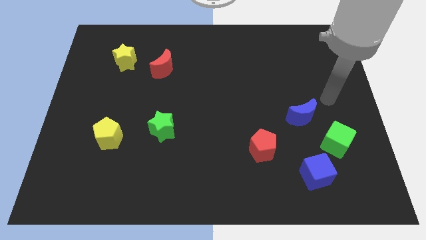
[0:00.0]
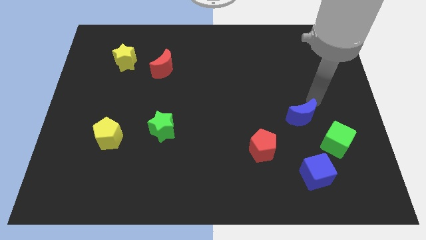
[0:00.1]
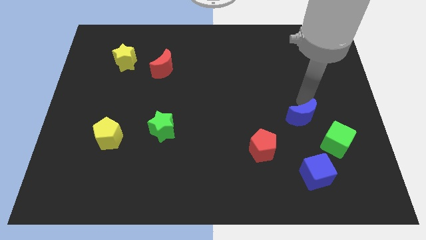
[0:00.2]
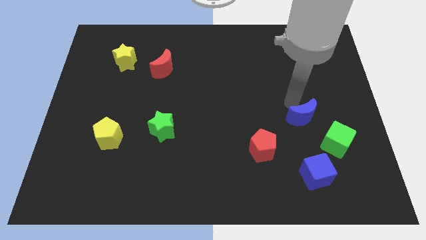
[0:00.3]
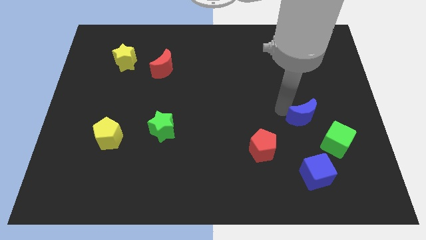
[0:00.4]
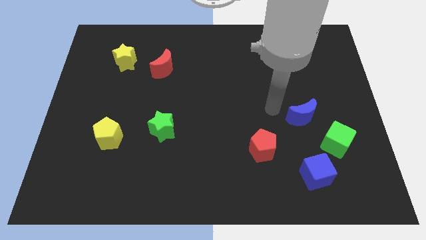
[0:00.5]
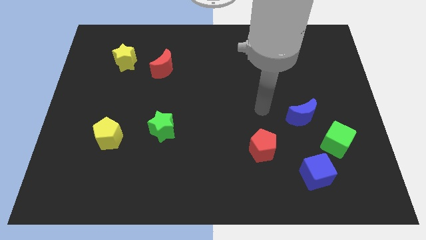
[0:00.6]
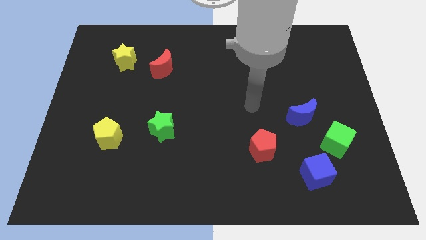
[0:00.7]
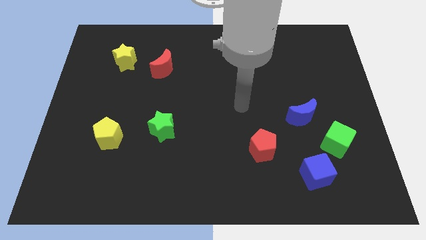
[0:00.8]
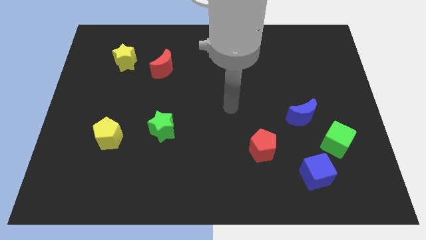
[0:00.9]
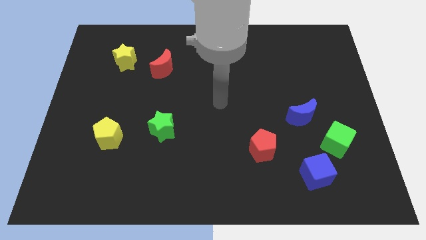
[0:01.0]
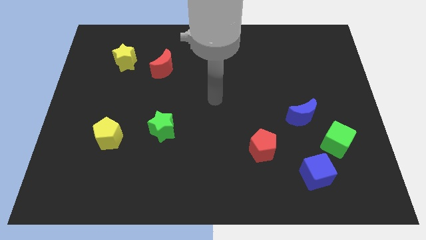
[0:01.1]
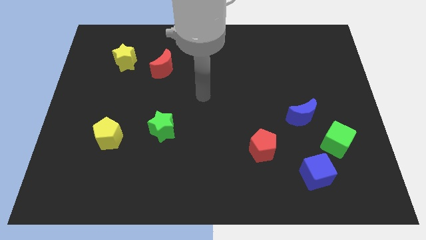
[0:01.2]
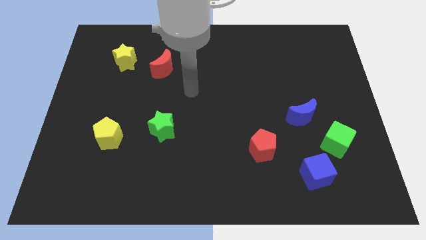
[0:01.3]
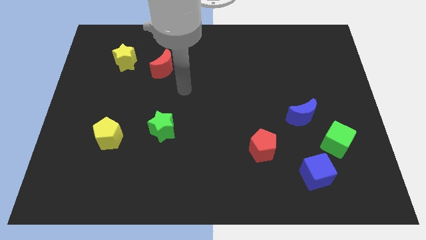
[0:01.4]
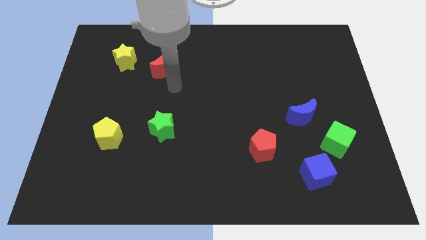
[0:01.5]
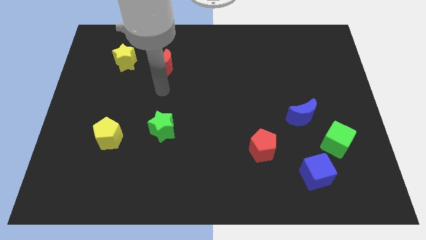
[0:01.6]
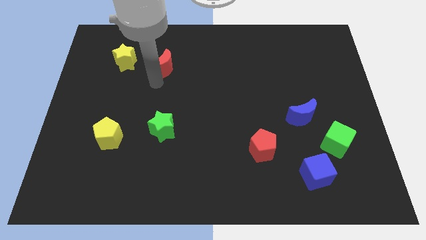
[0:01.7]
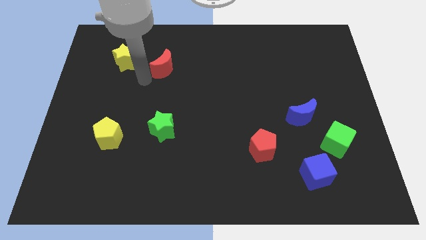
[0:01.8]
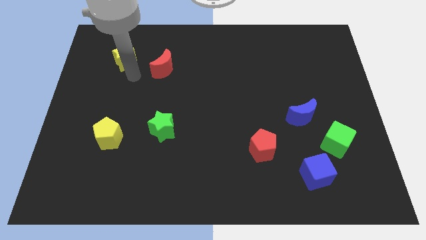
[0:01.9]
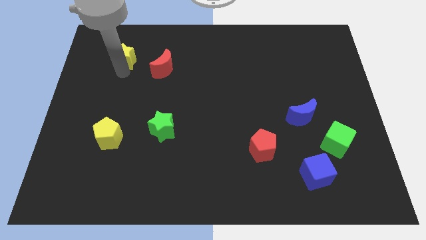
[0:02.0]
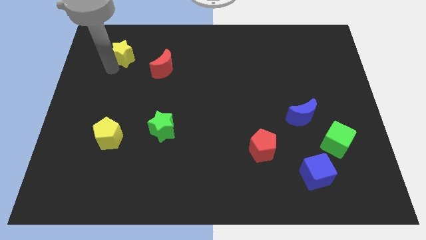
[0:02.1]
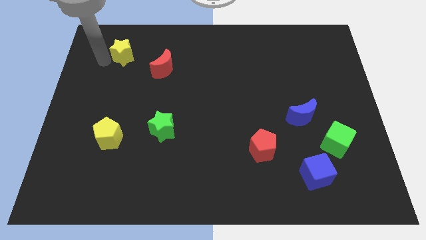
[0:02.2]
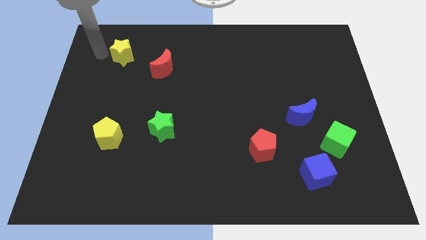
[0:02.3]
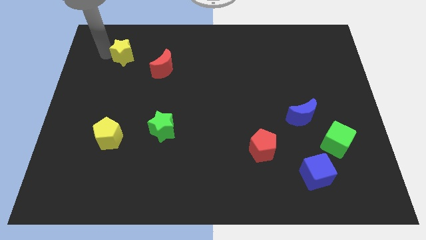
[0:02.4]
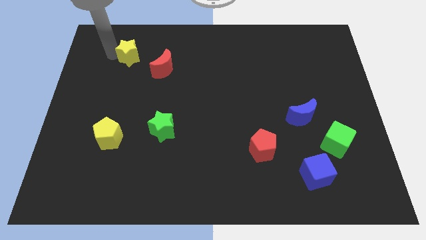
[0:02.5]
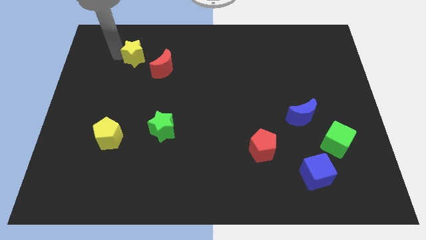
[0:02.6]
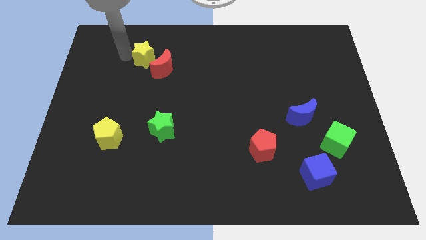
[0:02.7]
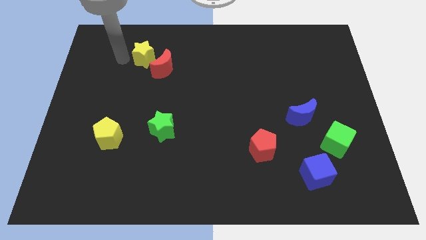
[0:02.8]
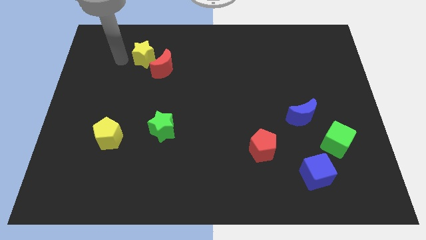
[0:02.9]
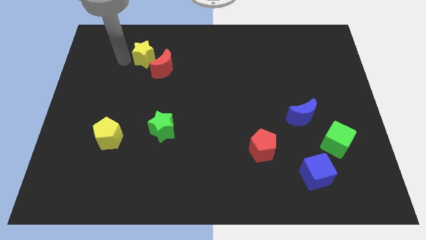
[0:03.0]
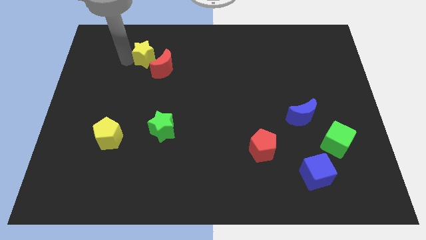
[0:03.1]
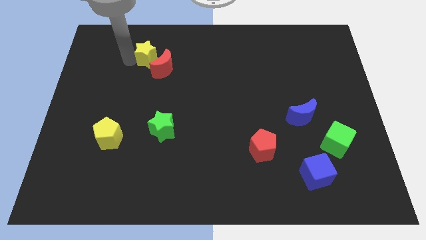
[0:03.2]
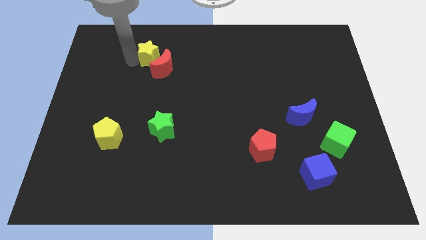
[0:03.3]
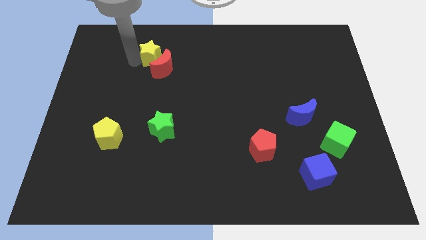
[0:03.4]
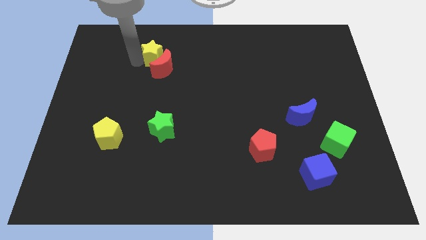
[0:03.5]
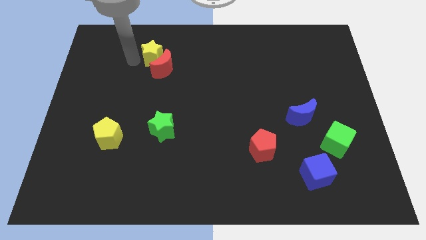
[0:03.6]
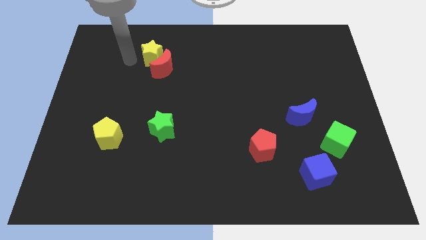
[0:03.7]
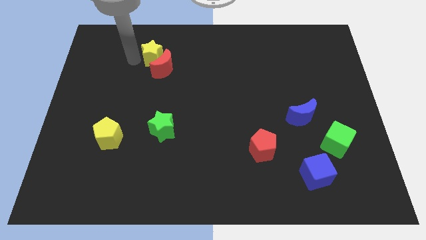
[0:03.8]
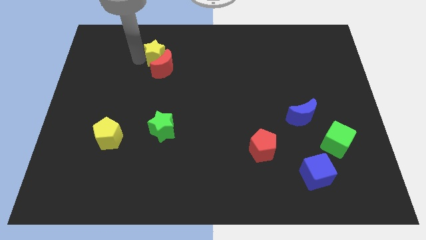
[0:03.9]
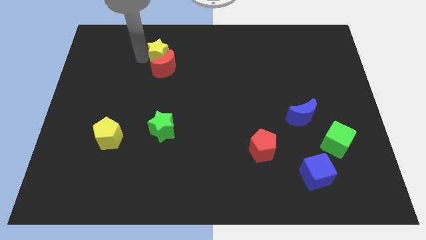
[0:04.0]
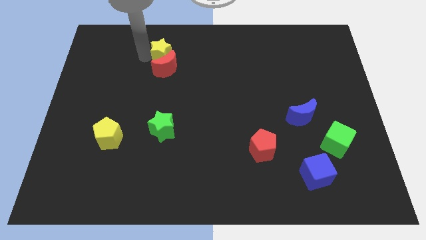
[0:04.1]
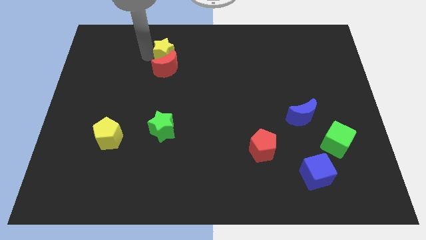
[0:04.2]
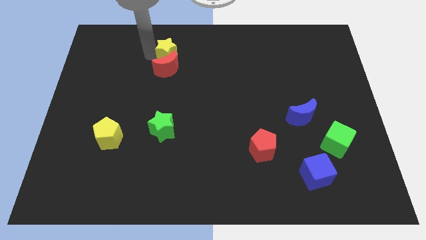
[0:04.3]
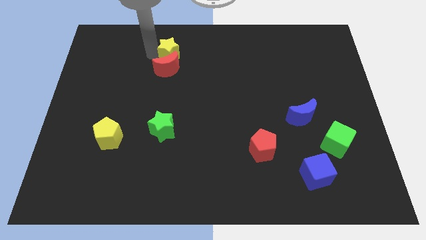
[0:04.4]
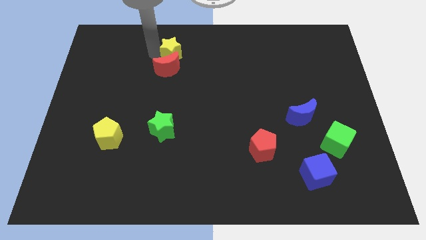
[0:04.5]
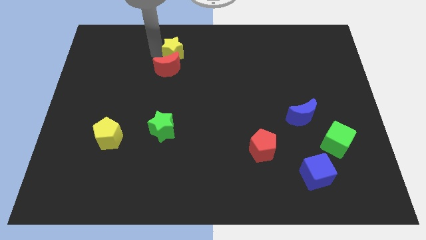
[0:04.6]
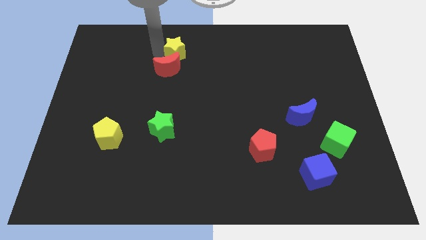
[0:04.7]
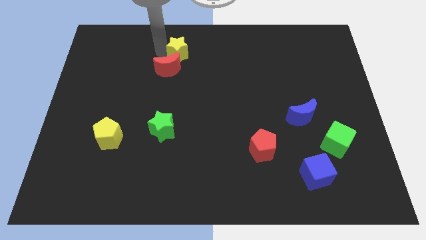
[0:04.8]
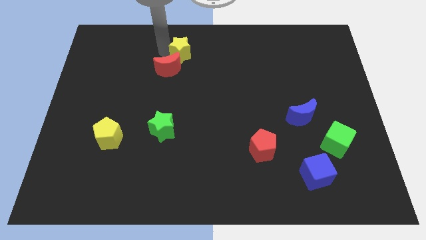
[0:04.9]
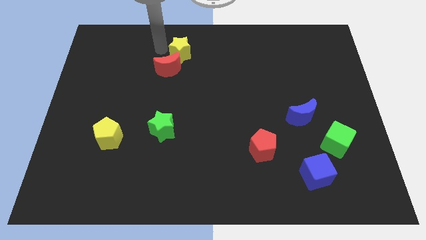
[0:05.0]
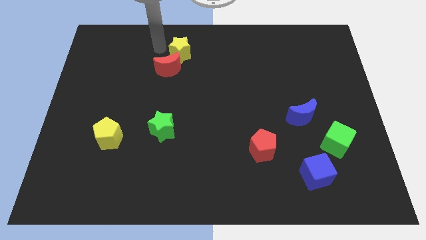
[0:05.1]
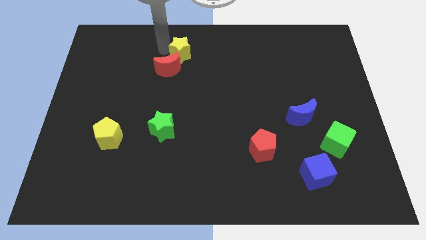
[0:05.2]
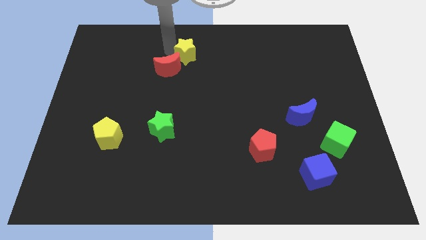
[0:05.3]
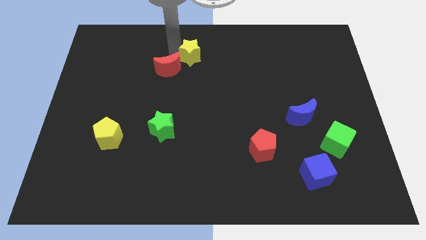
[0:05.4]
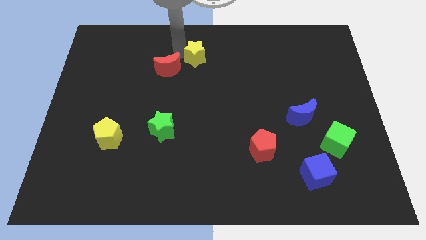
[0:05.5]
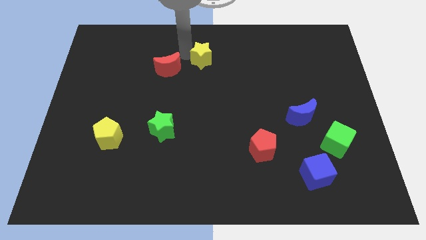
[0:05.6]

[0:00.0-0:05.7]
push the yellow star right

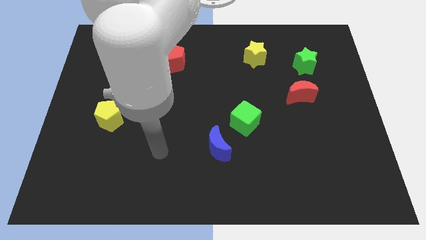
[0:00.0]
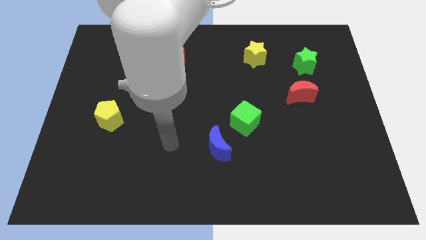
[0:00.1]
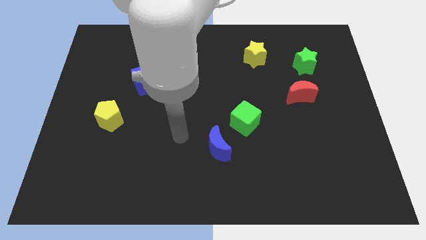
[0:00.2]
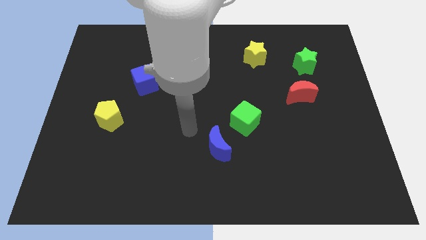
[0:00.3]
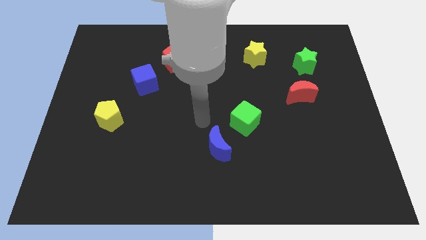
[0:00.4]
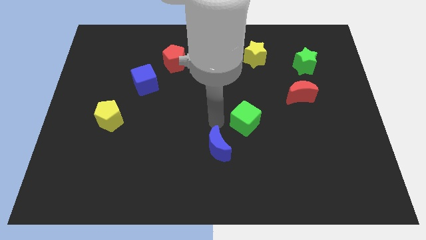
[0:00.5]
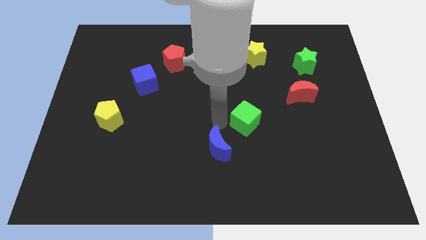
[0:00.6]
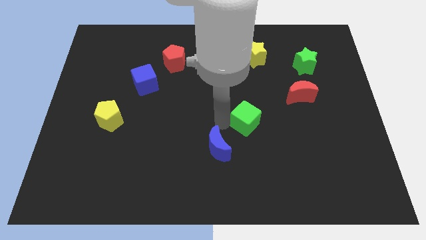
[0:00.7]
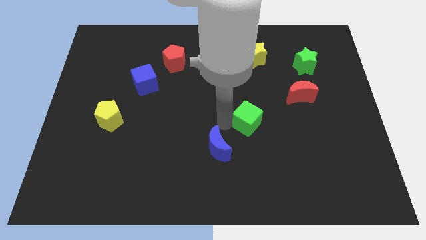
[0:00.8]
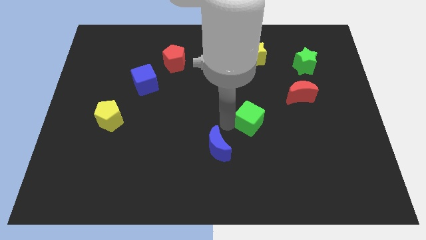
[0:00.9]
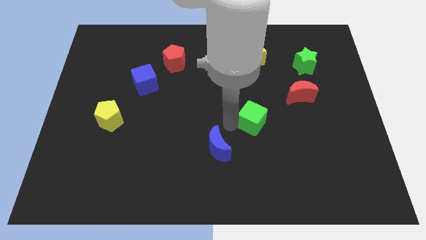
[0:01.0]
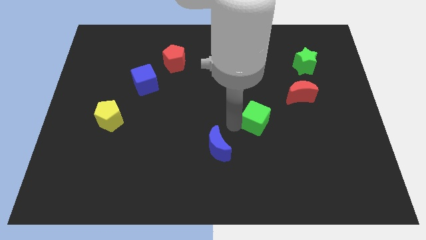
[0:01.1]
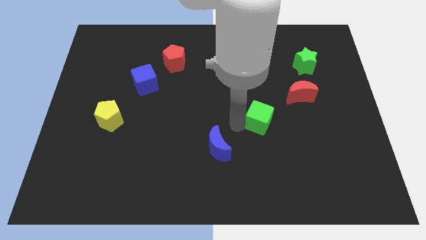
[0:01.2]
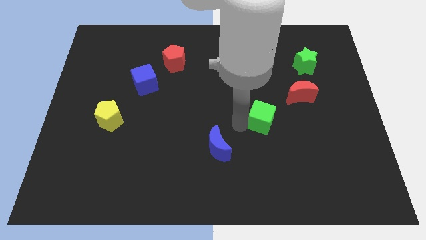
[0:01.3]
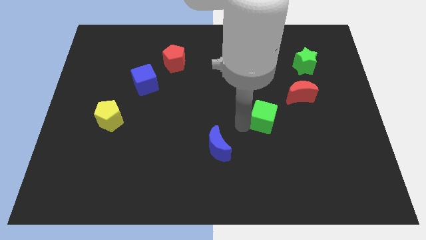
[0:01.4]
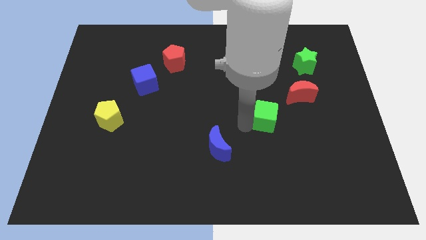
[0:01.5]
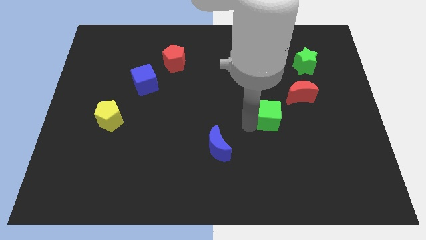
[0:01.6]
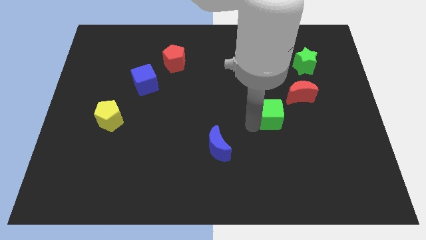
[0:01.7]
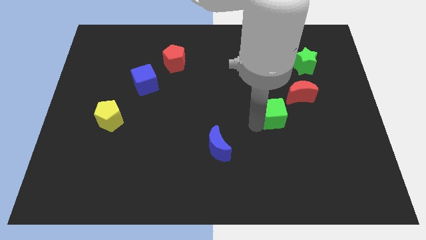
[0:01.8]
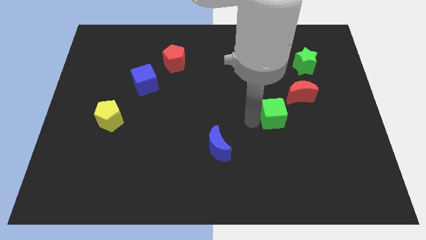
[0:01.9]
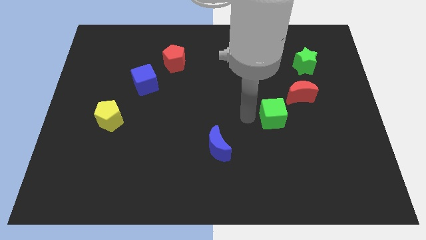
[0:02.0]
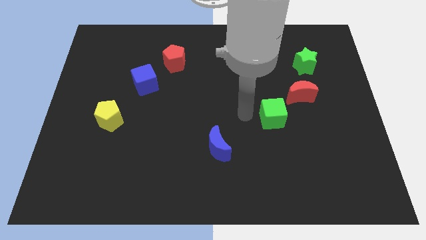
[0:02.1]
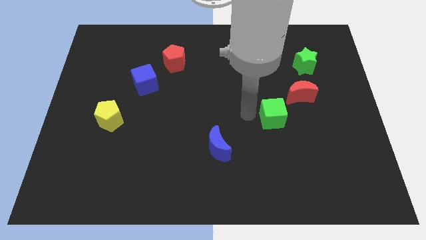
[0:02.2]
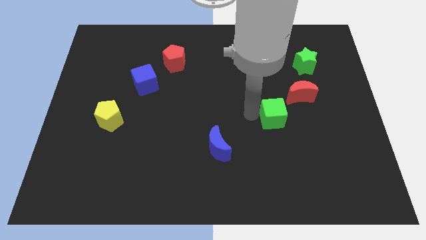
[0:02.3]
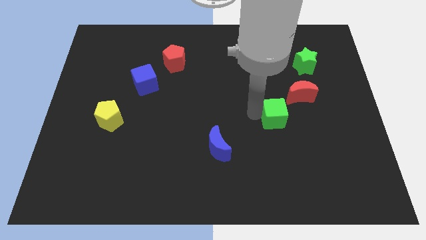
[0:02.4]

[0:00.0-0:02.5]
slightly slide the green cube right
